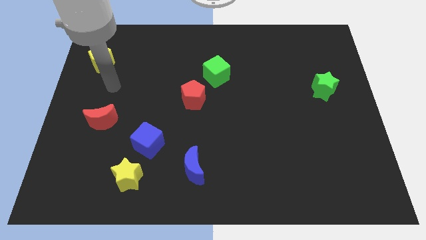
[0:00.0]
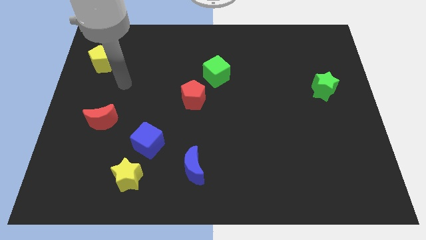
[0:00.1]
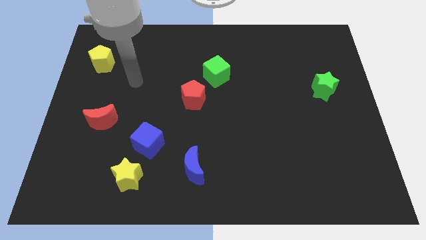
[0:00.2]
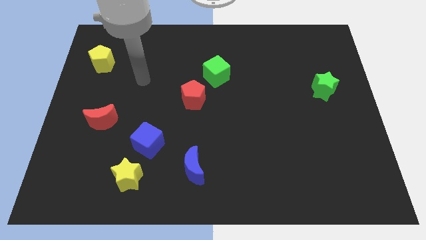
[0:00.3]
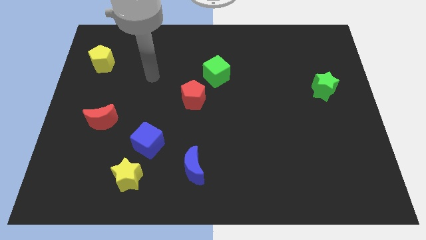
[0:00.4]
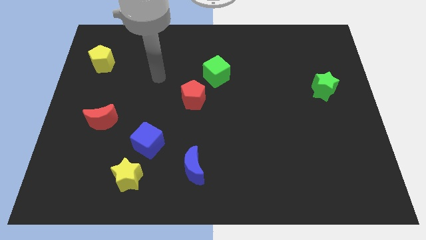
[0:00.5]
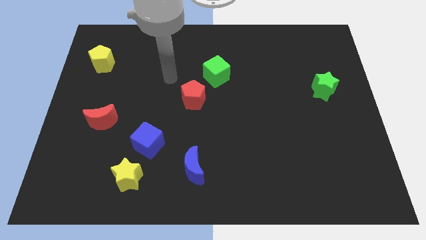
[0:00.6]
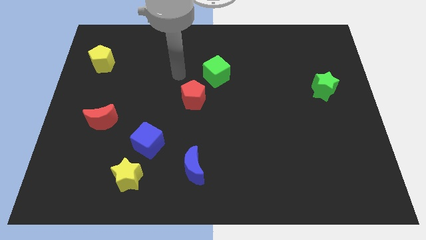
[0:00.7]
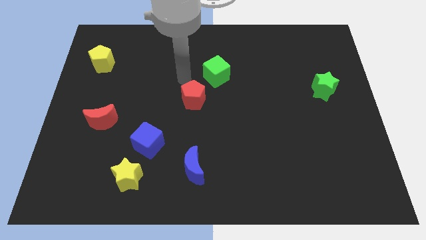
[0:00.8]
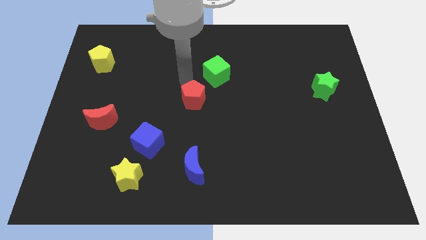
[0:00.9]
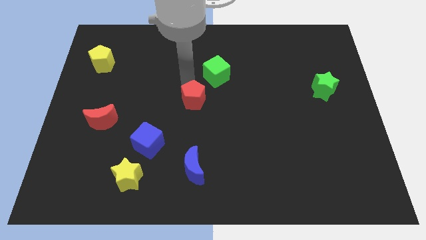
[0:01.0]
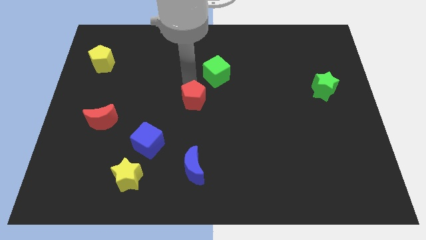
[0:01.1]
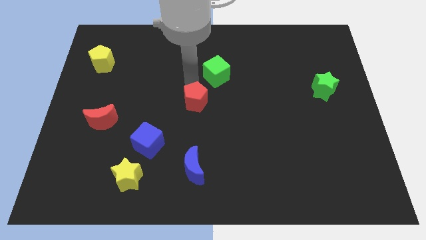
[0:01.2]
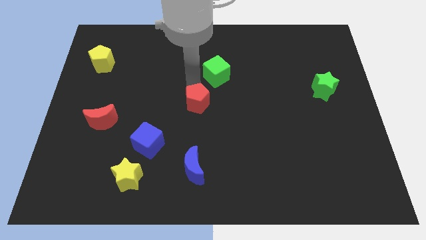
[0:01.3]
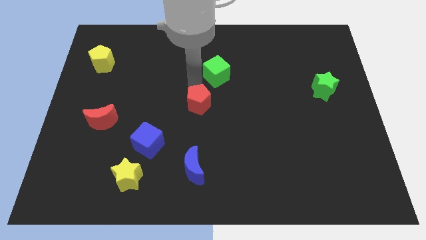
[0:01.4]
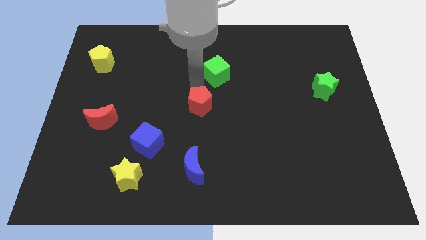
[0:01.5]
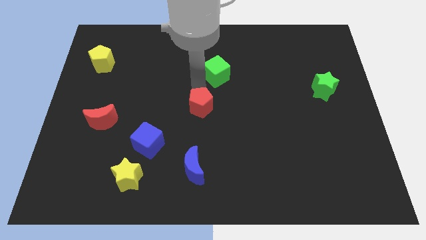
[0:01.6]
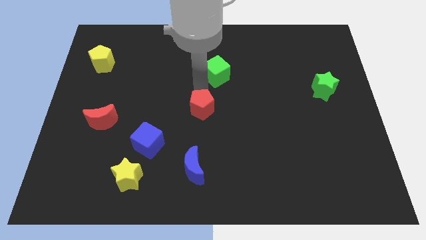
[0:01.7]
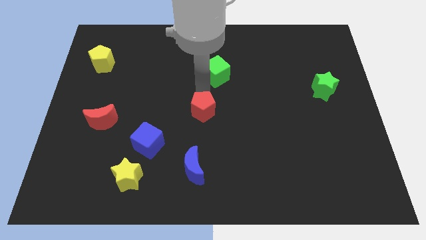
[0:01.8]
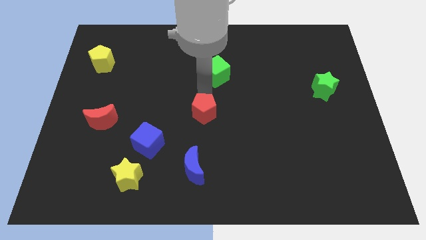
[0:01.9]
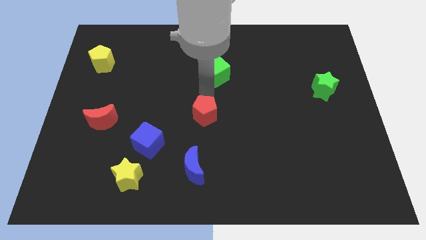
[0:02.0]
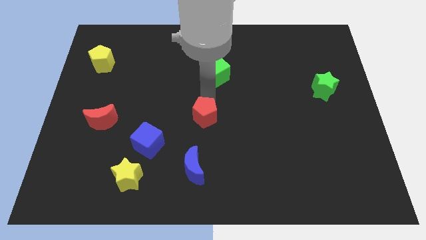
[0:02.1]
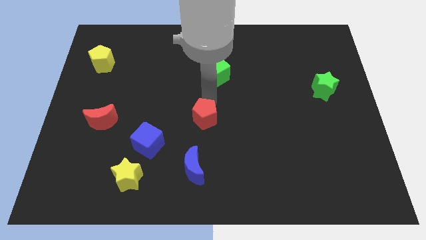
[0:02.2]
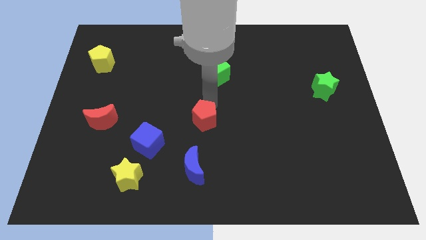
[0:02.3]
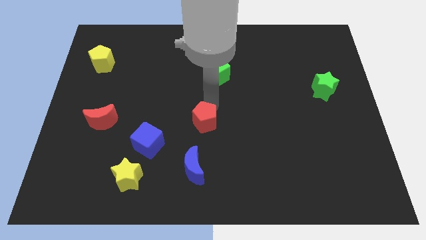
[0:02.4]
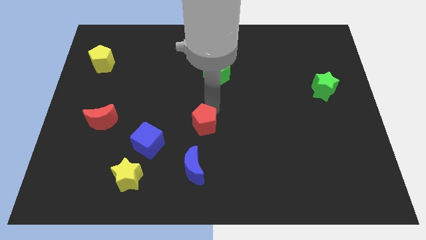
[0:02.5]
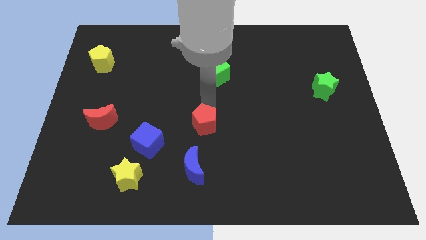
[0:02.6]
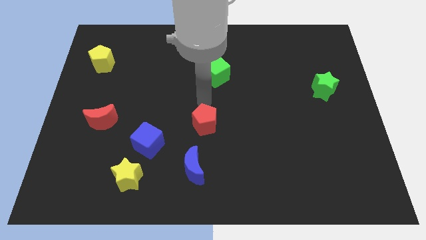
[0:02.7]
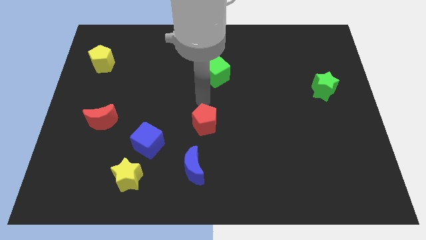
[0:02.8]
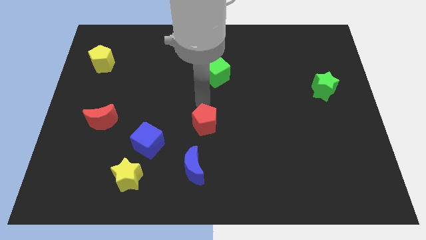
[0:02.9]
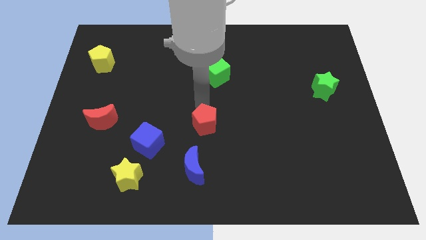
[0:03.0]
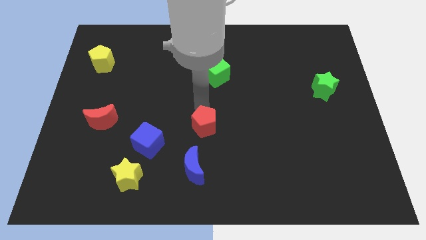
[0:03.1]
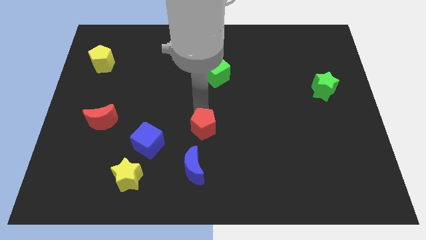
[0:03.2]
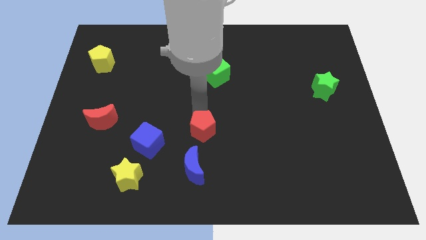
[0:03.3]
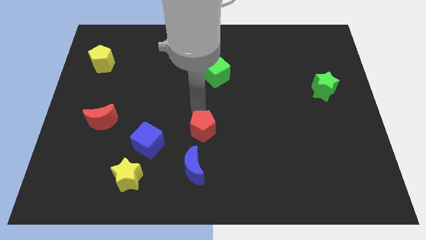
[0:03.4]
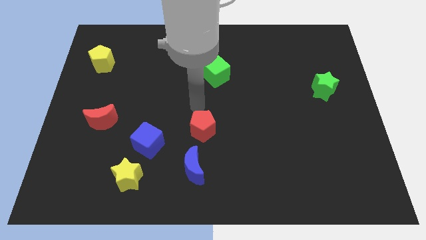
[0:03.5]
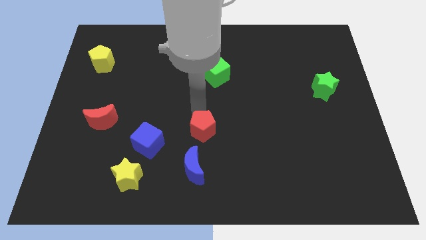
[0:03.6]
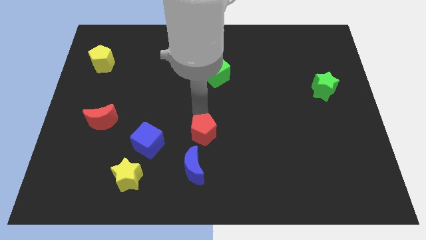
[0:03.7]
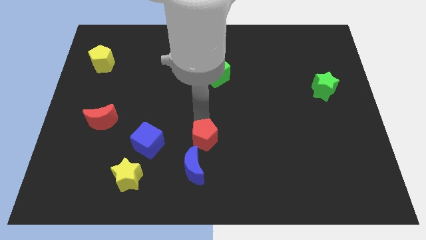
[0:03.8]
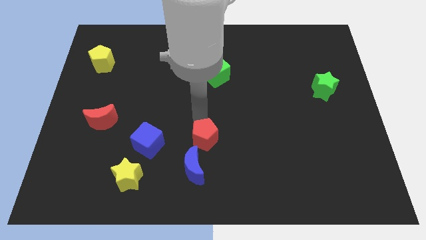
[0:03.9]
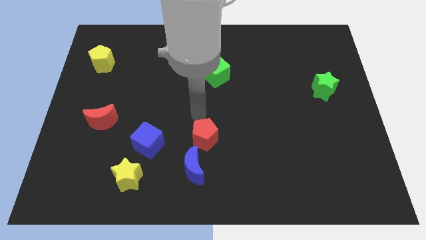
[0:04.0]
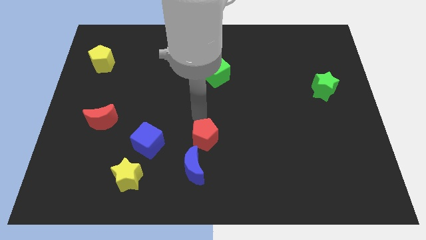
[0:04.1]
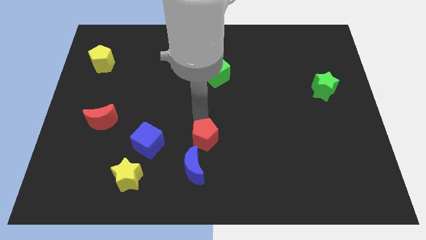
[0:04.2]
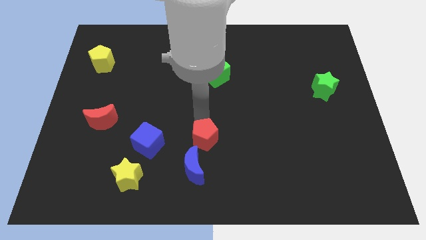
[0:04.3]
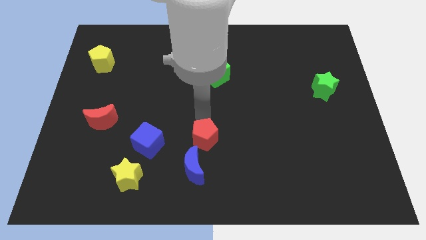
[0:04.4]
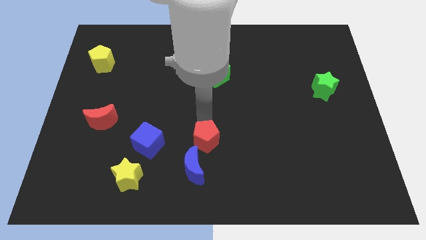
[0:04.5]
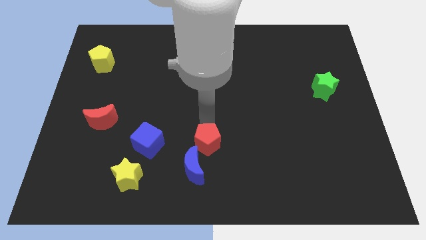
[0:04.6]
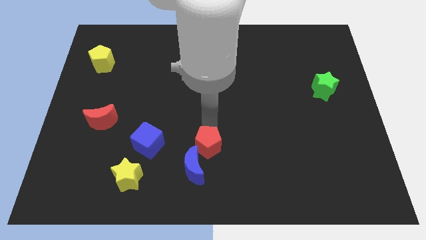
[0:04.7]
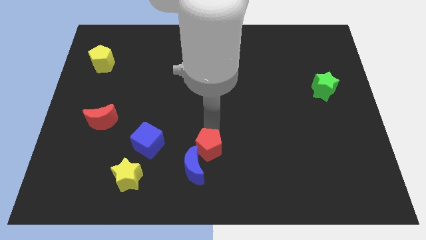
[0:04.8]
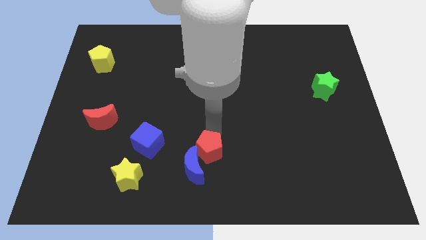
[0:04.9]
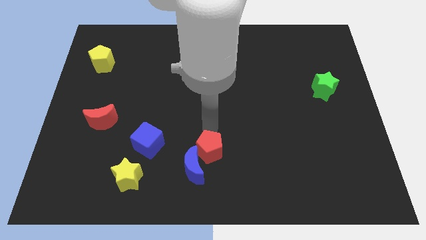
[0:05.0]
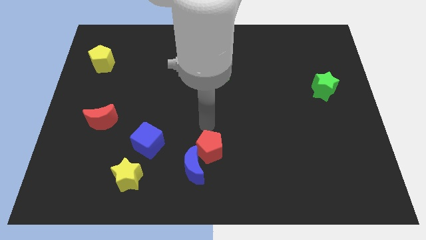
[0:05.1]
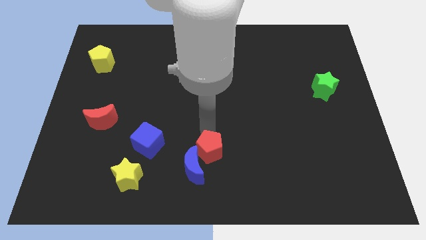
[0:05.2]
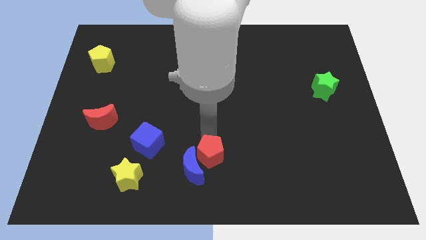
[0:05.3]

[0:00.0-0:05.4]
move the red pentagon to the bottom

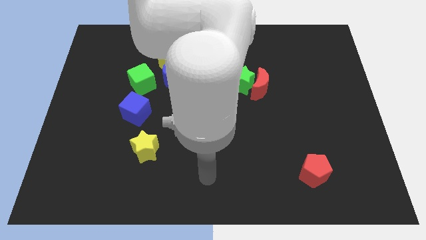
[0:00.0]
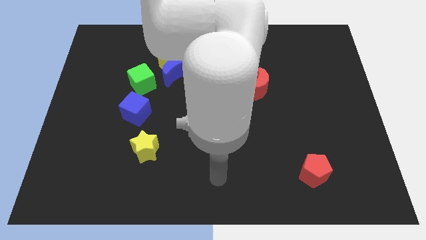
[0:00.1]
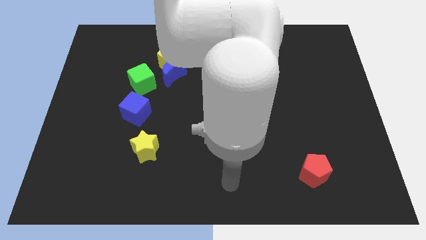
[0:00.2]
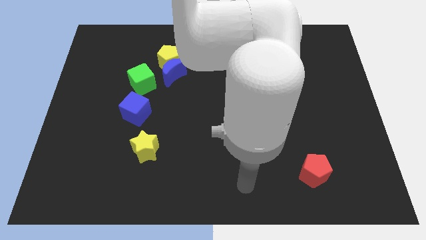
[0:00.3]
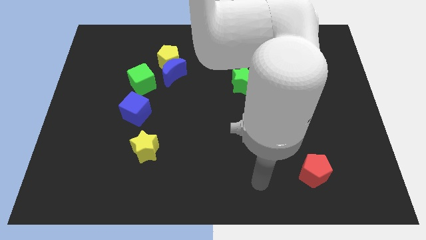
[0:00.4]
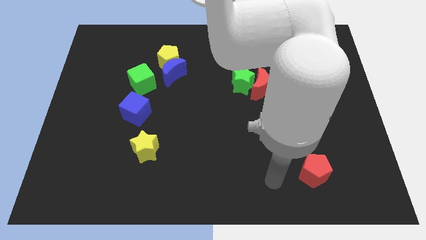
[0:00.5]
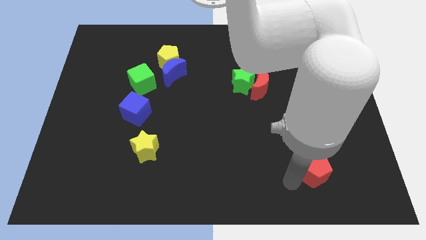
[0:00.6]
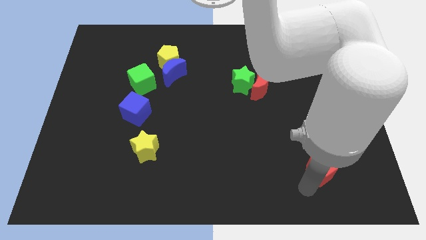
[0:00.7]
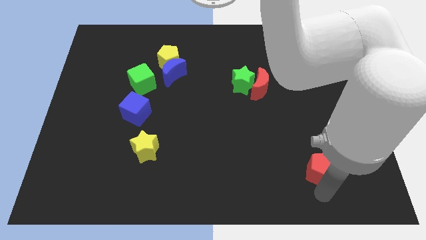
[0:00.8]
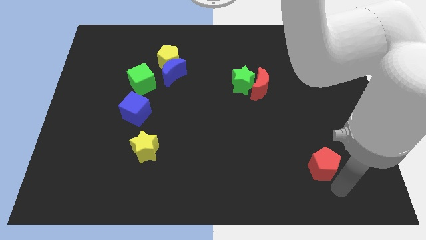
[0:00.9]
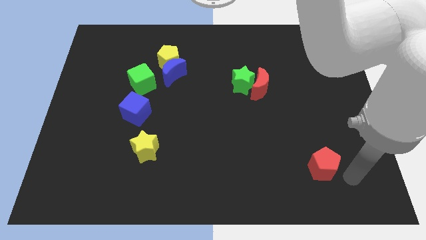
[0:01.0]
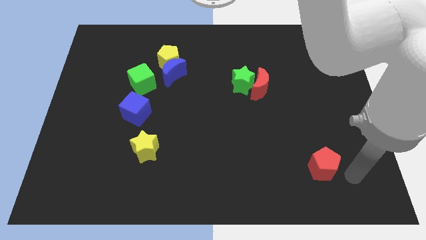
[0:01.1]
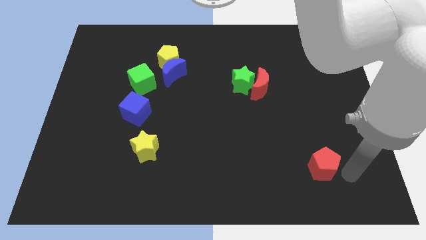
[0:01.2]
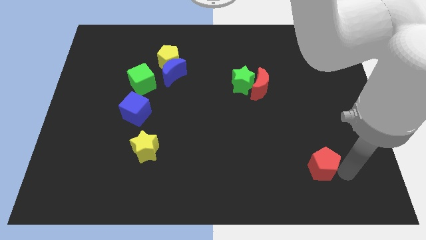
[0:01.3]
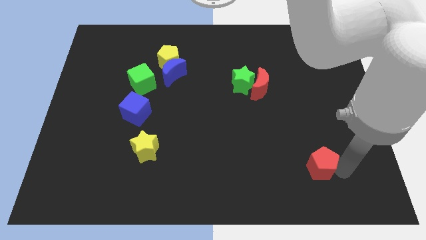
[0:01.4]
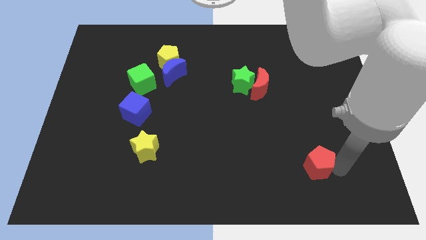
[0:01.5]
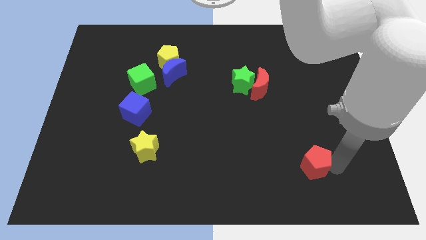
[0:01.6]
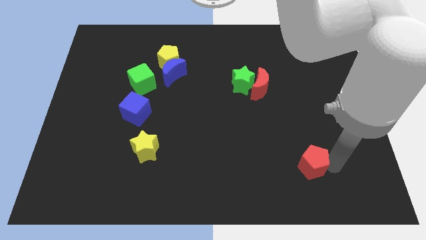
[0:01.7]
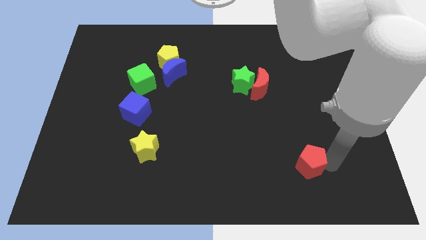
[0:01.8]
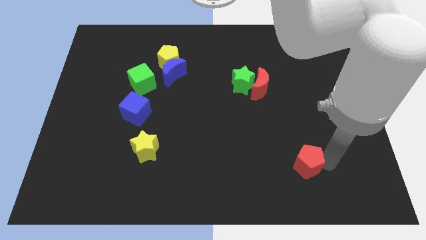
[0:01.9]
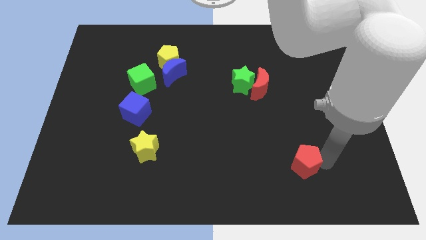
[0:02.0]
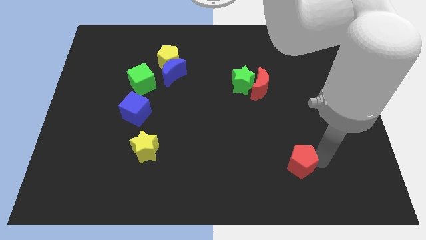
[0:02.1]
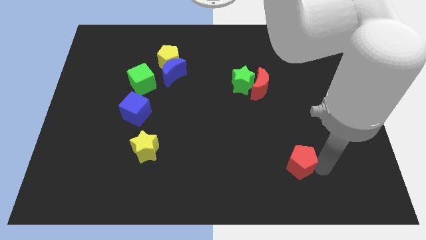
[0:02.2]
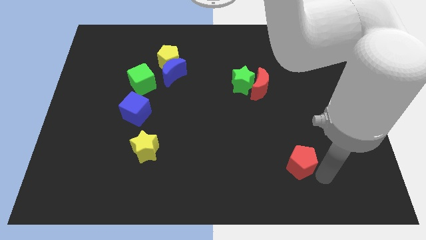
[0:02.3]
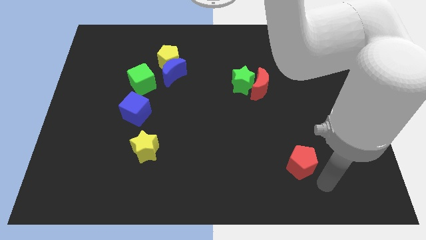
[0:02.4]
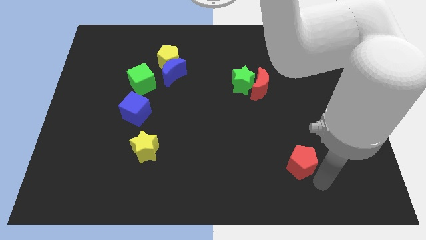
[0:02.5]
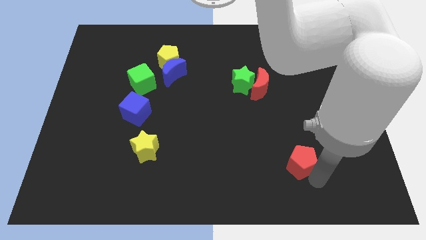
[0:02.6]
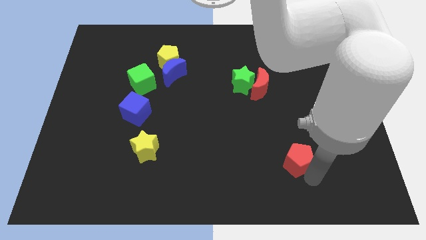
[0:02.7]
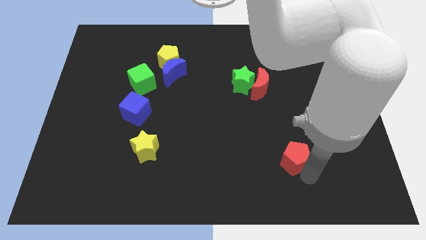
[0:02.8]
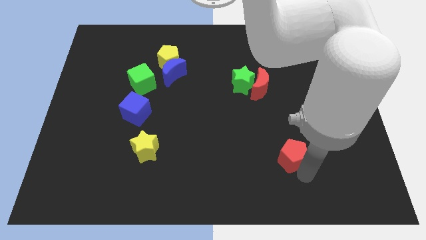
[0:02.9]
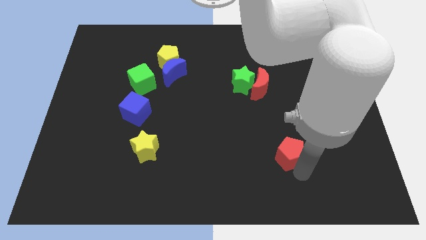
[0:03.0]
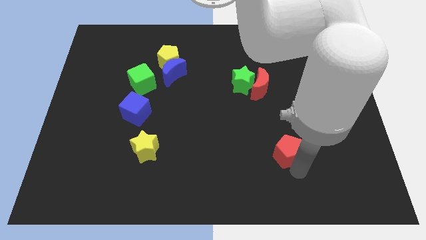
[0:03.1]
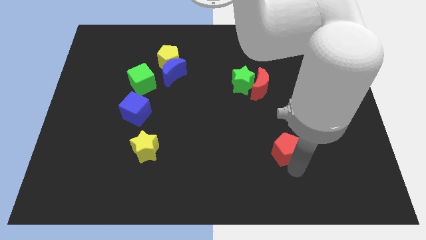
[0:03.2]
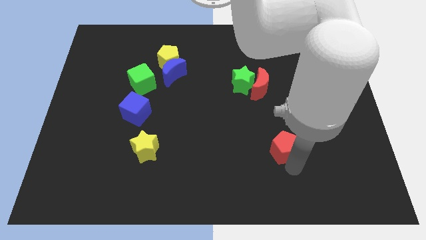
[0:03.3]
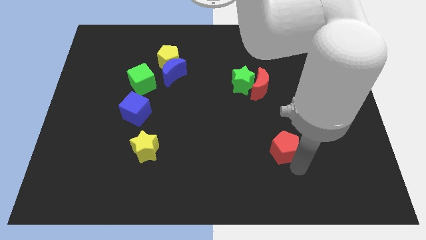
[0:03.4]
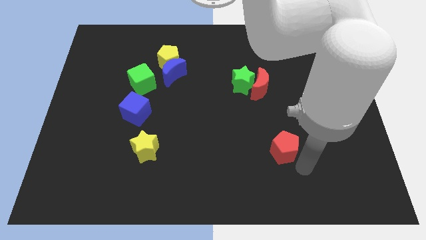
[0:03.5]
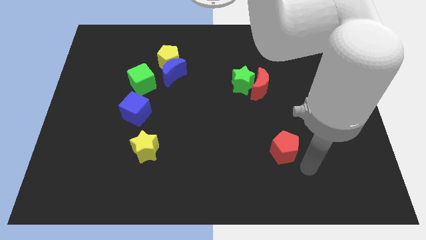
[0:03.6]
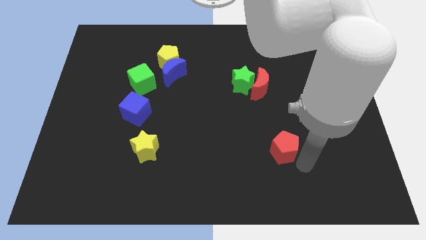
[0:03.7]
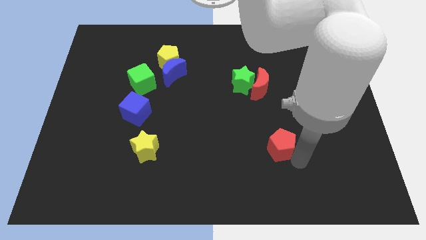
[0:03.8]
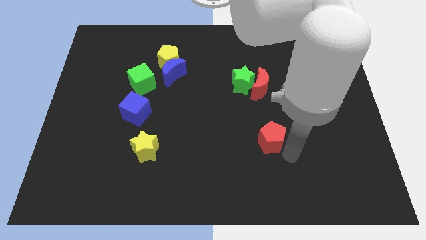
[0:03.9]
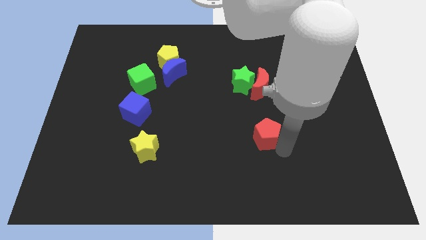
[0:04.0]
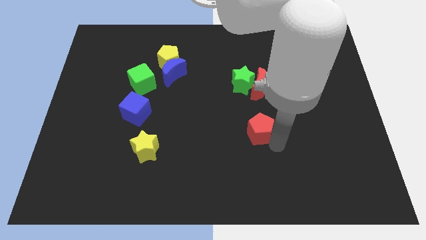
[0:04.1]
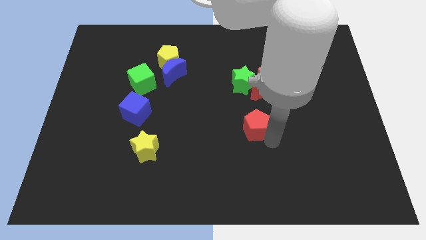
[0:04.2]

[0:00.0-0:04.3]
move the red pentagon to the middle of the board
